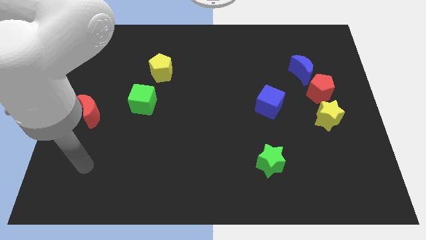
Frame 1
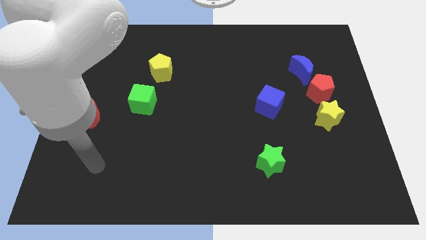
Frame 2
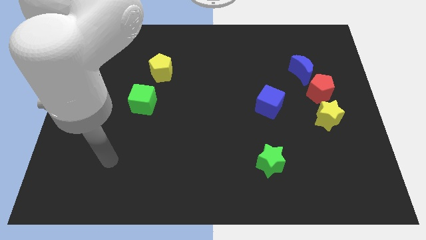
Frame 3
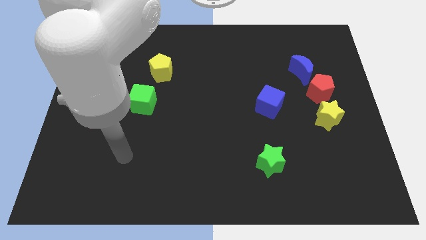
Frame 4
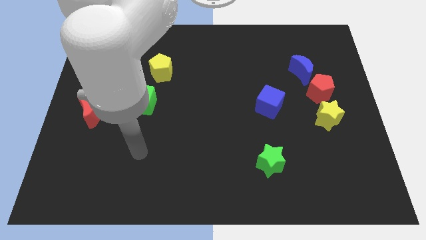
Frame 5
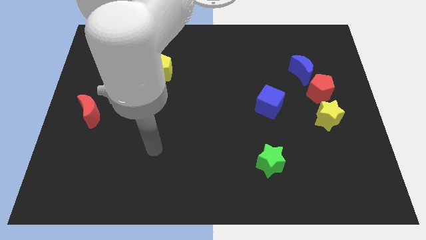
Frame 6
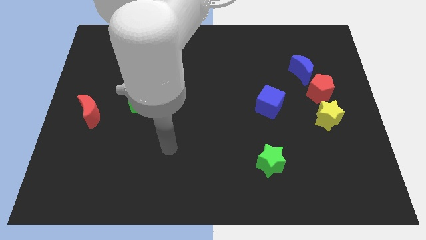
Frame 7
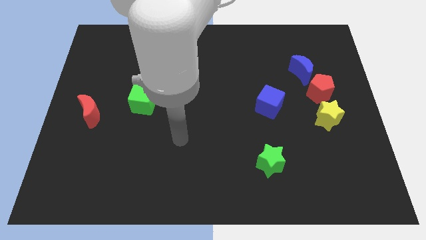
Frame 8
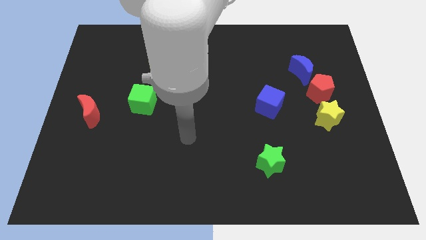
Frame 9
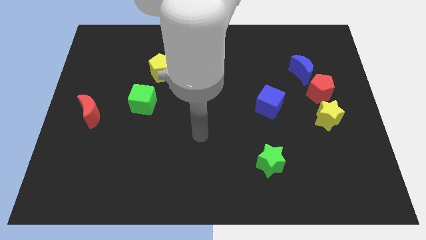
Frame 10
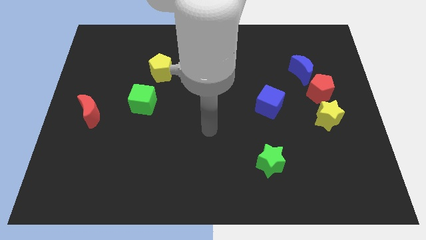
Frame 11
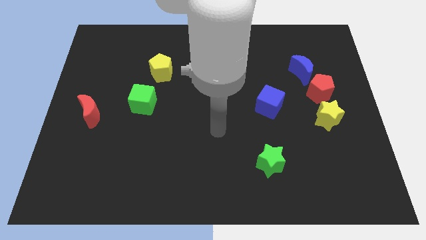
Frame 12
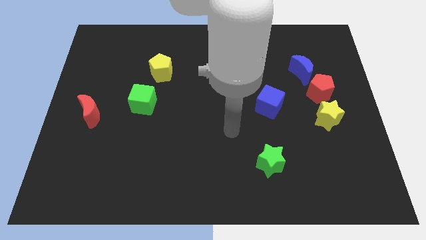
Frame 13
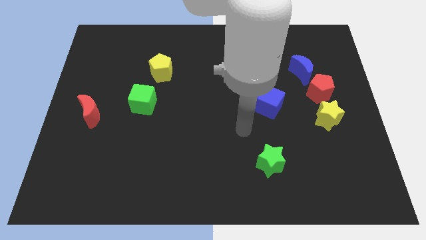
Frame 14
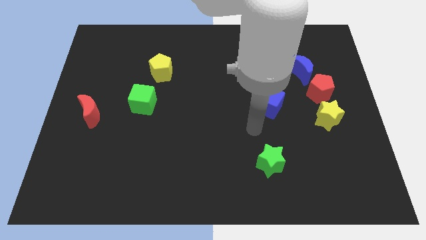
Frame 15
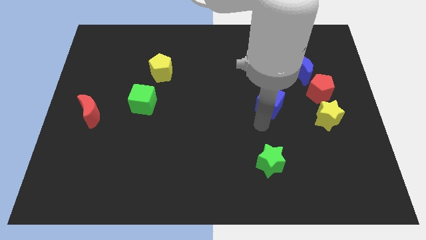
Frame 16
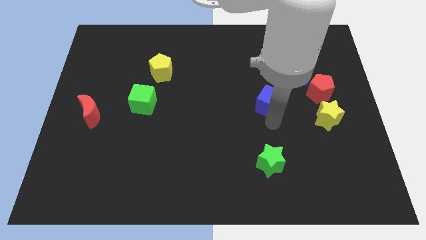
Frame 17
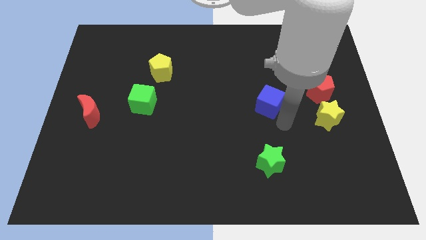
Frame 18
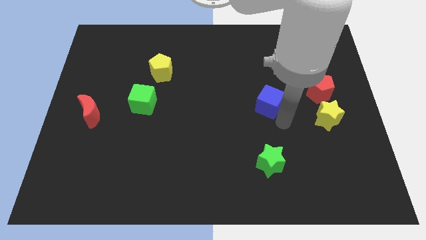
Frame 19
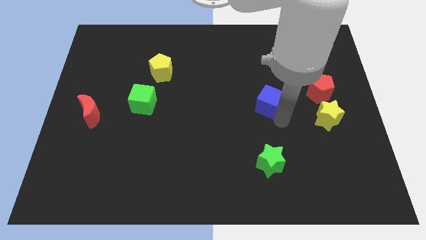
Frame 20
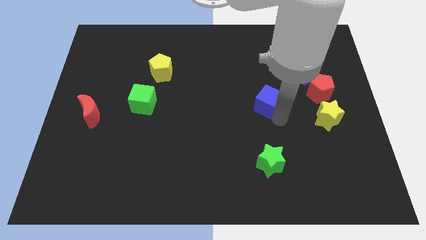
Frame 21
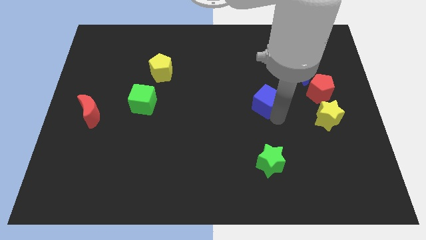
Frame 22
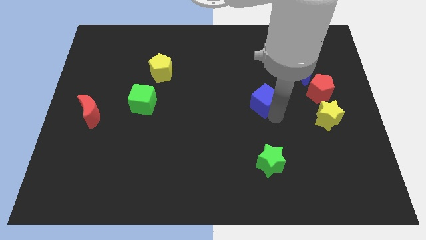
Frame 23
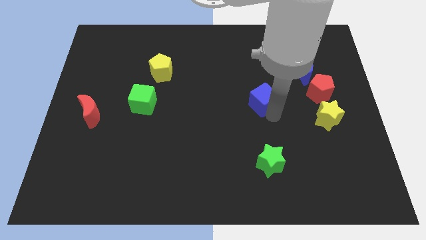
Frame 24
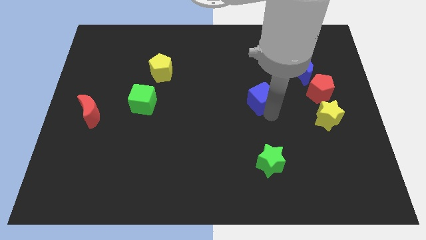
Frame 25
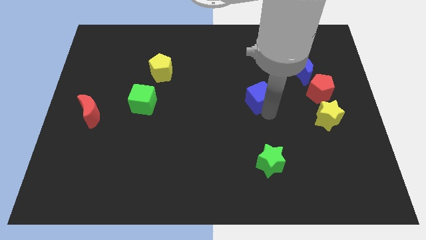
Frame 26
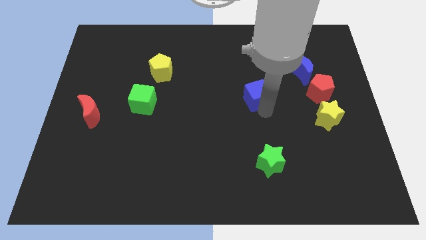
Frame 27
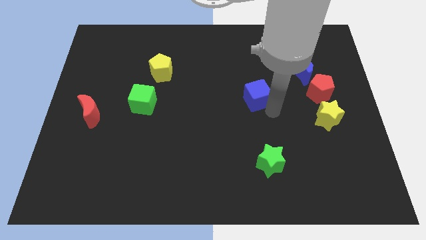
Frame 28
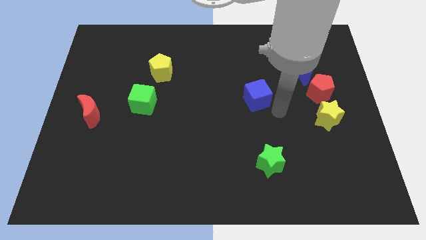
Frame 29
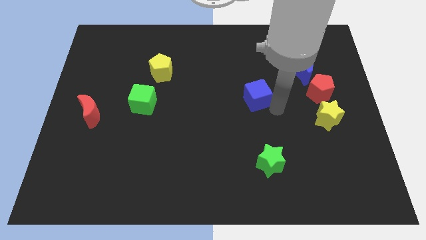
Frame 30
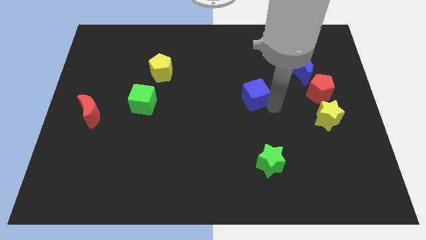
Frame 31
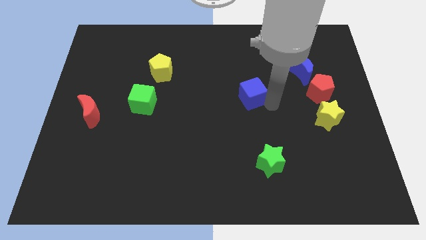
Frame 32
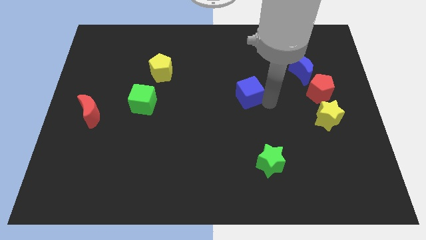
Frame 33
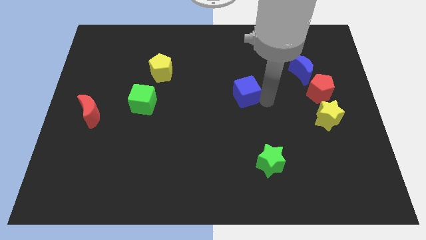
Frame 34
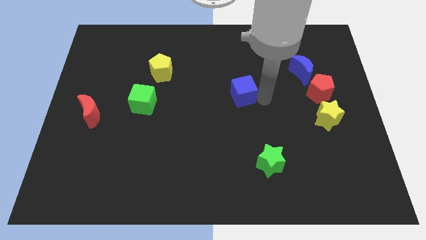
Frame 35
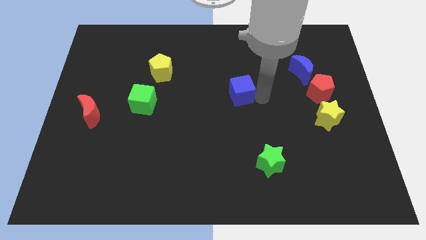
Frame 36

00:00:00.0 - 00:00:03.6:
move the blue cube a bit up and left

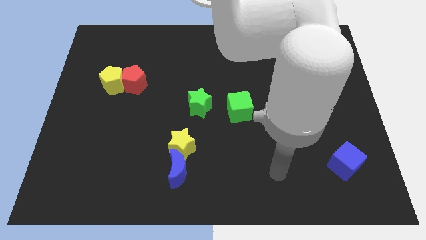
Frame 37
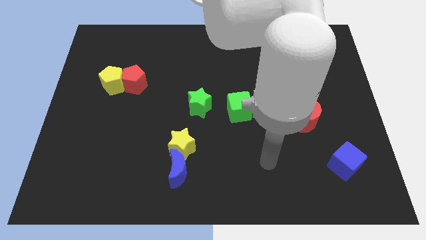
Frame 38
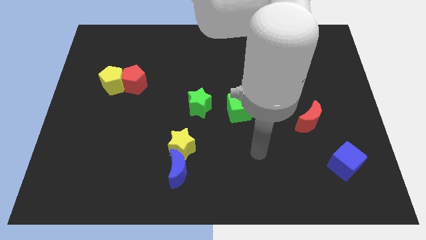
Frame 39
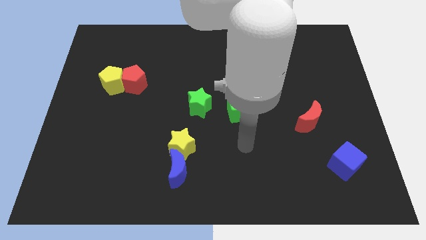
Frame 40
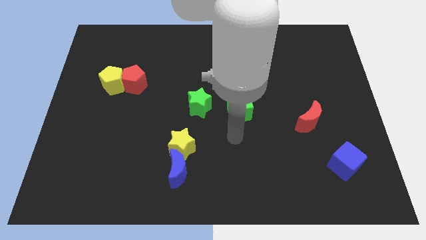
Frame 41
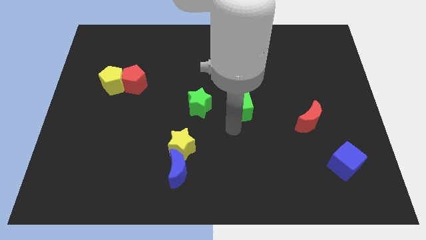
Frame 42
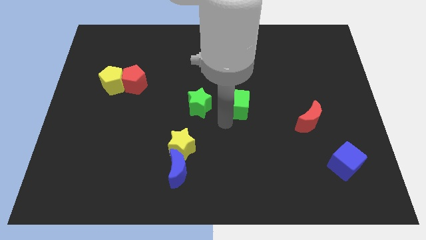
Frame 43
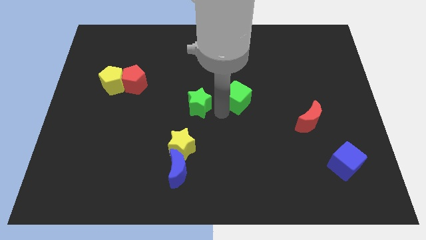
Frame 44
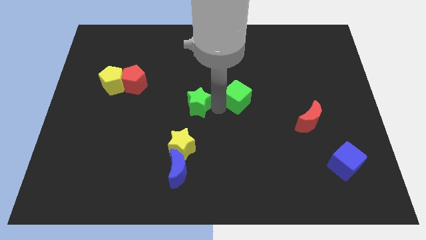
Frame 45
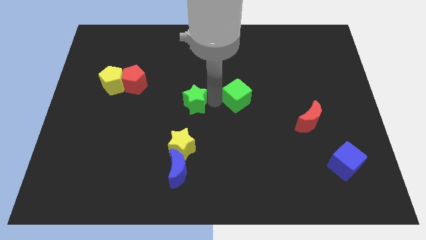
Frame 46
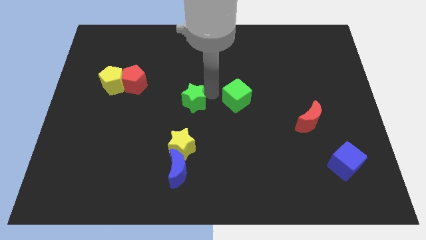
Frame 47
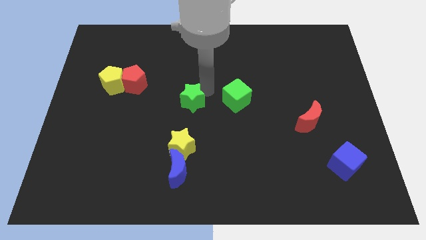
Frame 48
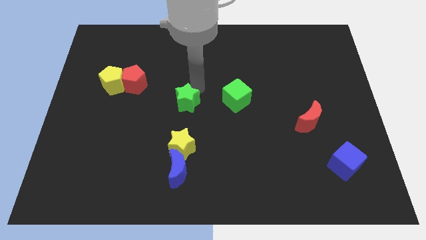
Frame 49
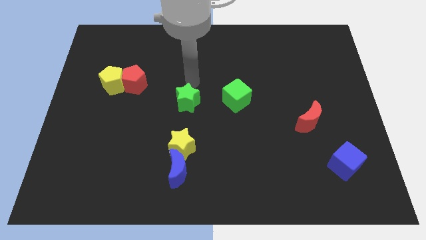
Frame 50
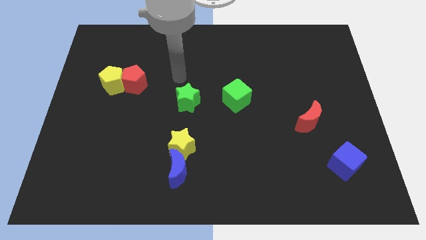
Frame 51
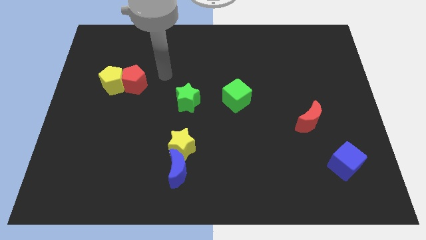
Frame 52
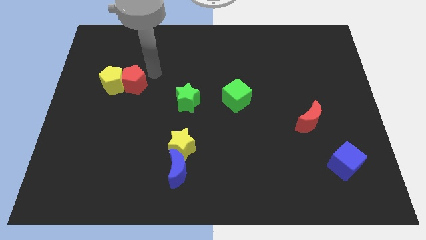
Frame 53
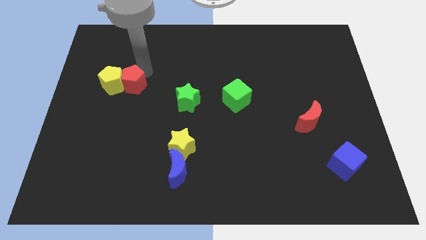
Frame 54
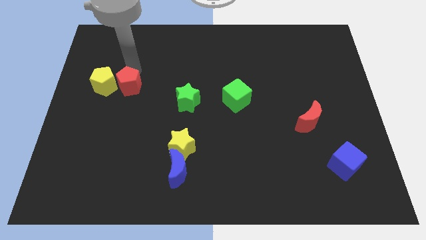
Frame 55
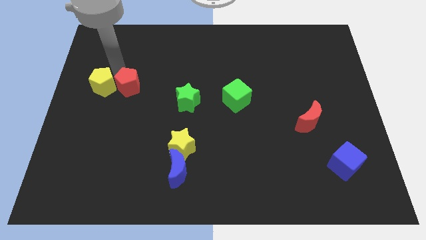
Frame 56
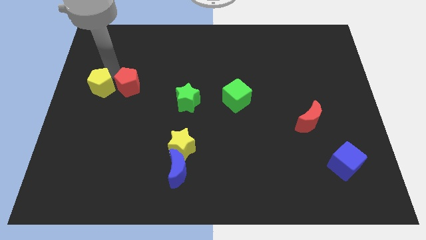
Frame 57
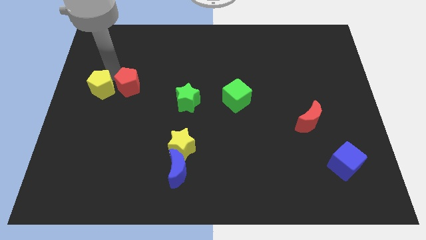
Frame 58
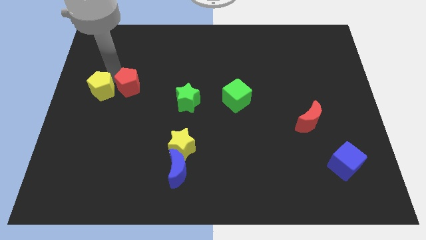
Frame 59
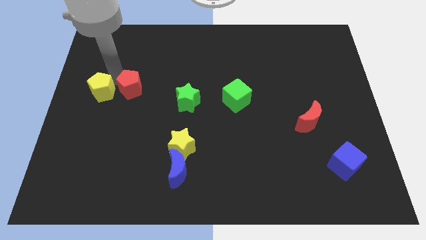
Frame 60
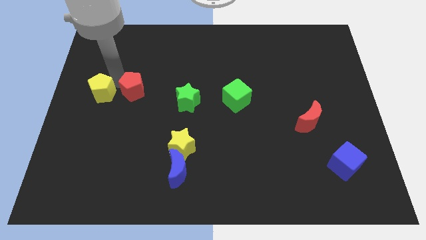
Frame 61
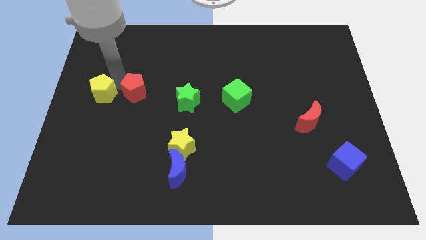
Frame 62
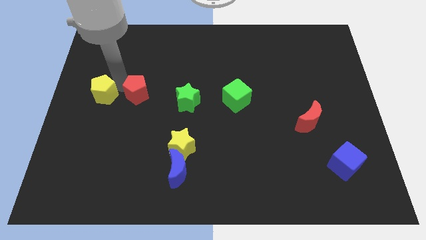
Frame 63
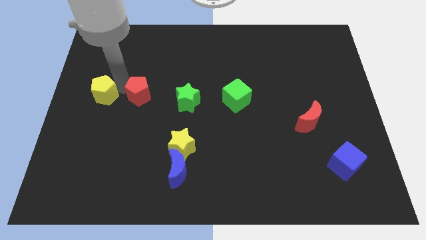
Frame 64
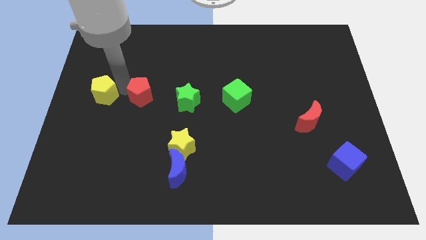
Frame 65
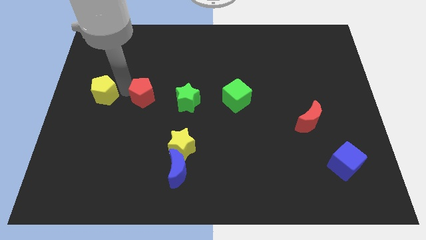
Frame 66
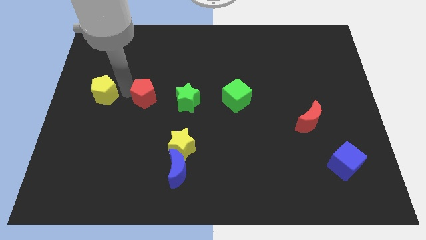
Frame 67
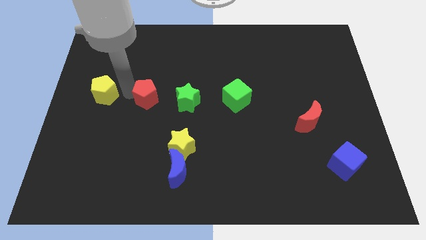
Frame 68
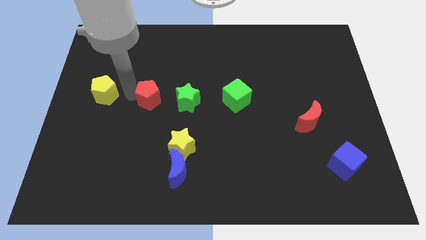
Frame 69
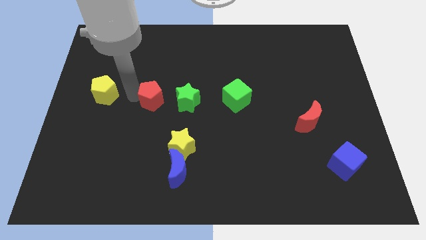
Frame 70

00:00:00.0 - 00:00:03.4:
slightly push the red pentagon down and right

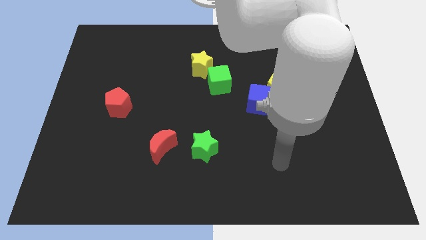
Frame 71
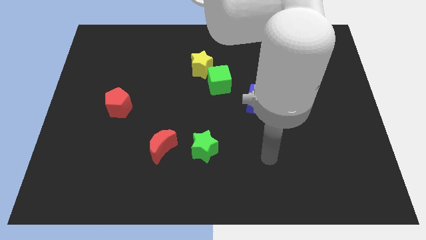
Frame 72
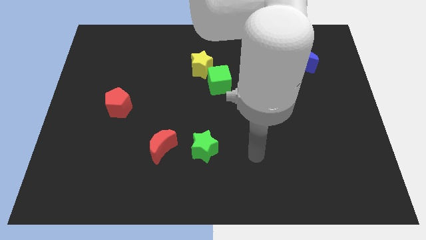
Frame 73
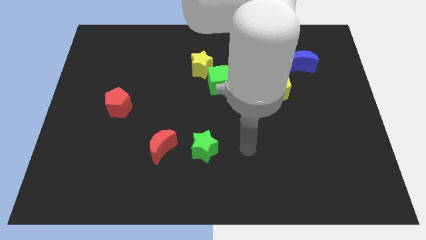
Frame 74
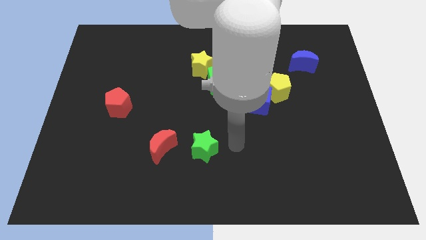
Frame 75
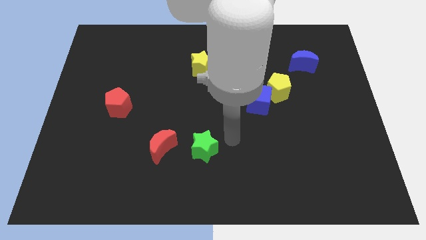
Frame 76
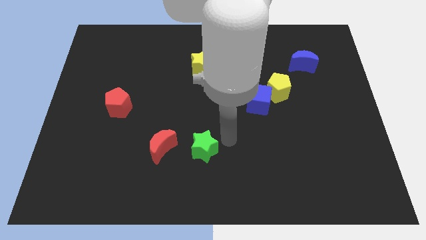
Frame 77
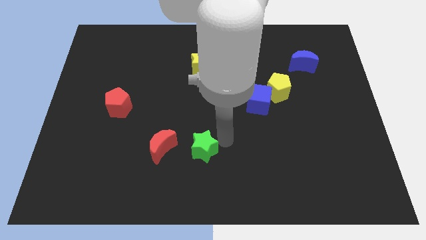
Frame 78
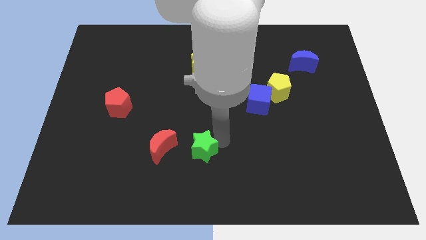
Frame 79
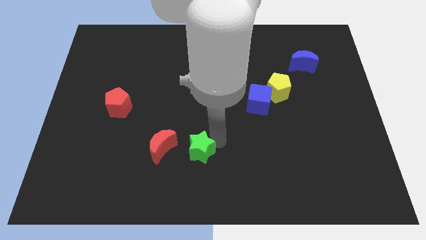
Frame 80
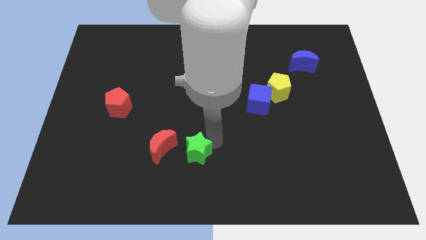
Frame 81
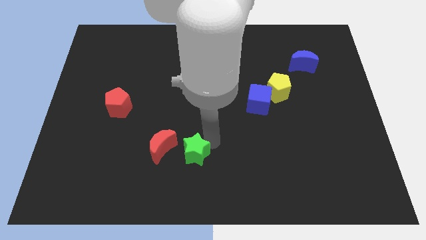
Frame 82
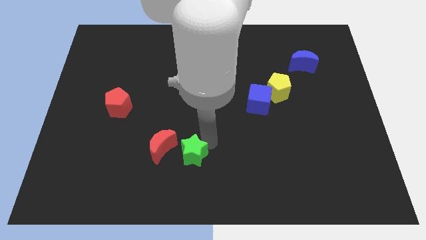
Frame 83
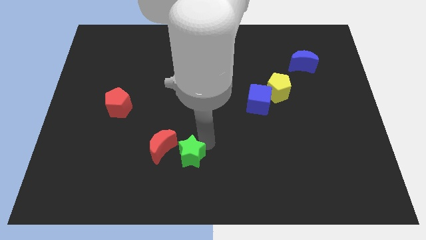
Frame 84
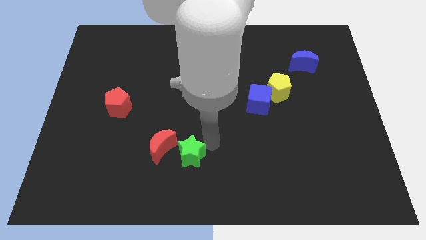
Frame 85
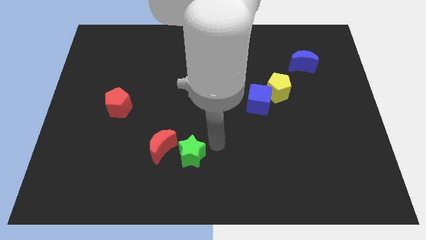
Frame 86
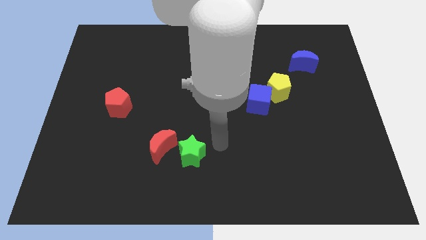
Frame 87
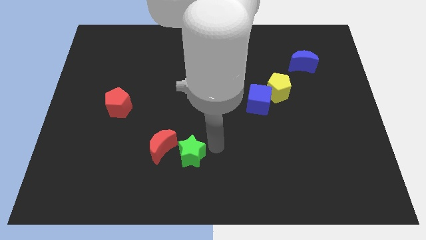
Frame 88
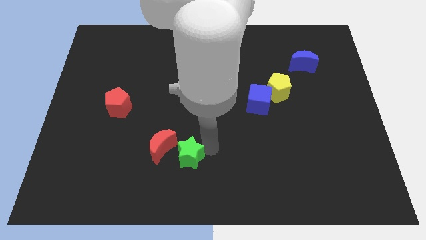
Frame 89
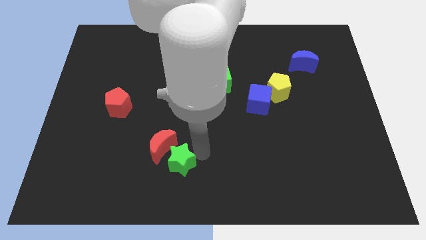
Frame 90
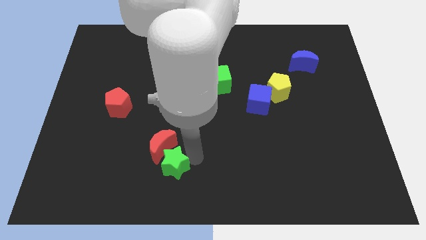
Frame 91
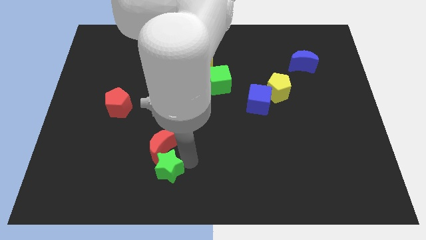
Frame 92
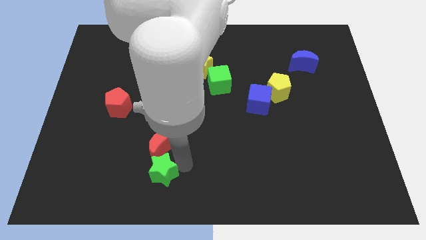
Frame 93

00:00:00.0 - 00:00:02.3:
push the green star left a little bit
